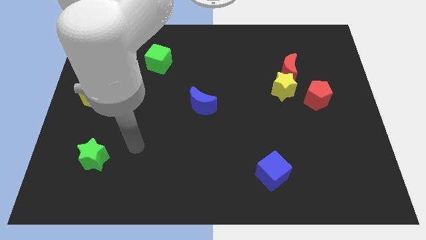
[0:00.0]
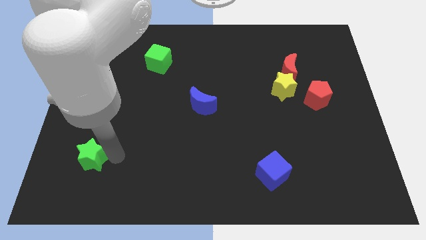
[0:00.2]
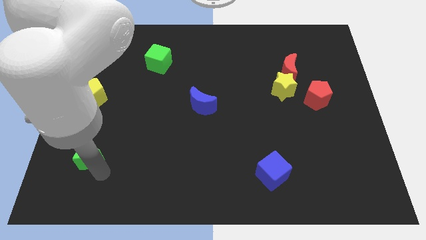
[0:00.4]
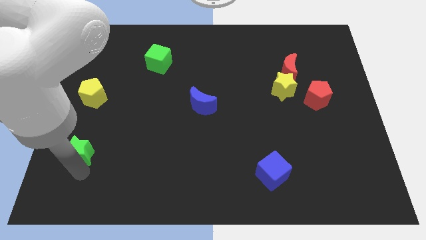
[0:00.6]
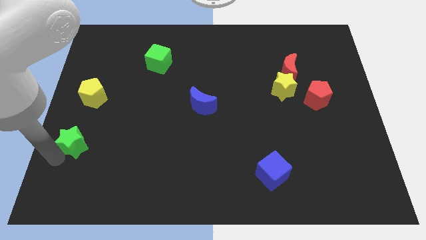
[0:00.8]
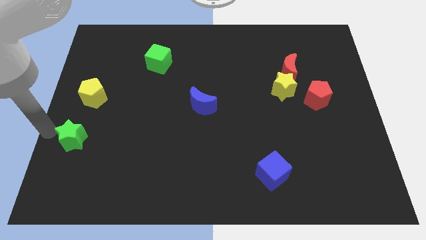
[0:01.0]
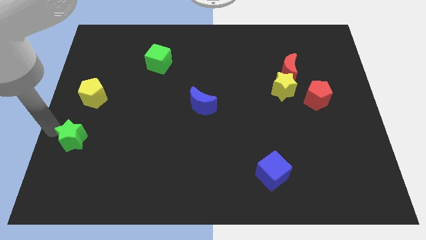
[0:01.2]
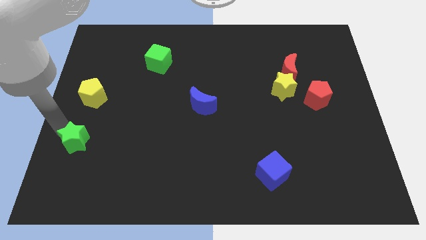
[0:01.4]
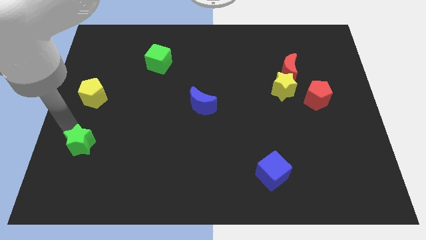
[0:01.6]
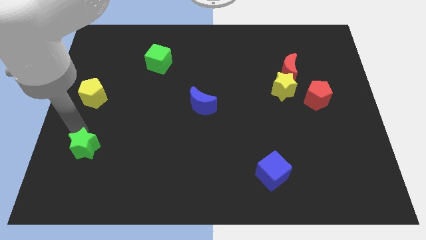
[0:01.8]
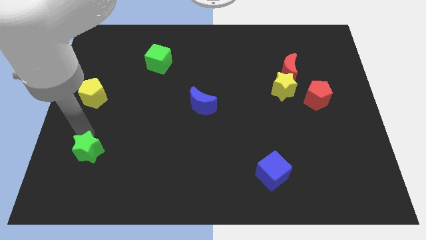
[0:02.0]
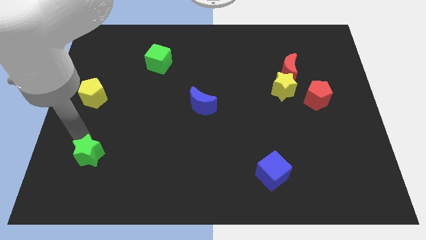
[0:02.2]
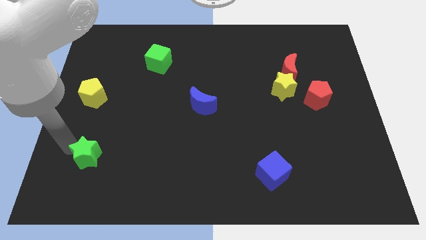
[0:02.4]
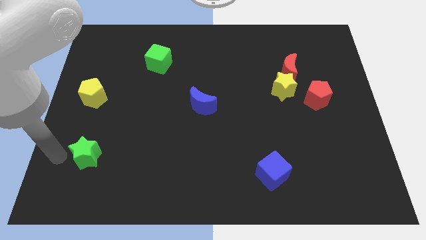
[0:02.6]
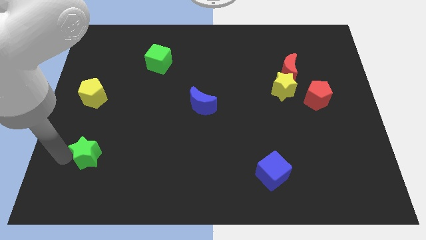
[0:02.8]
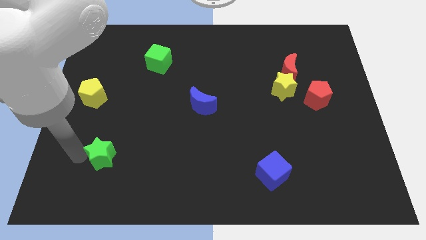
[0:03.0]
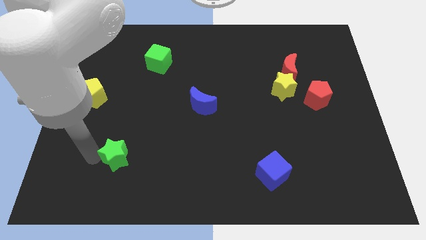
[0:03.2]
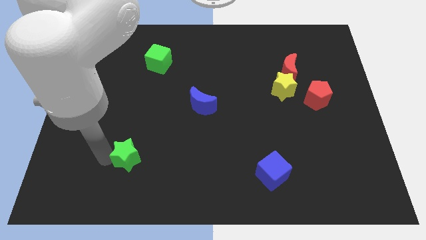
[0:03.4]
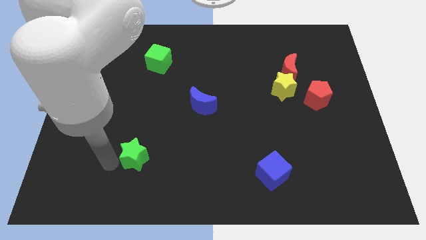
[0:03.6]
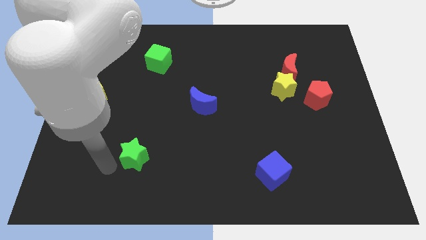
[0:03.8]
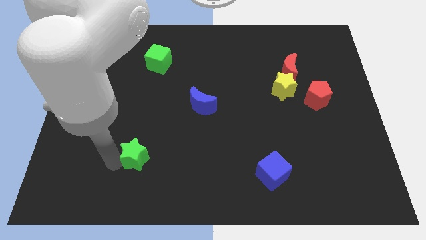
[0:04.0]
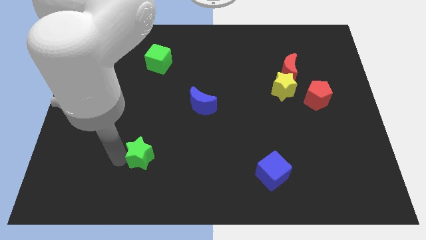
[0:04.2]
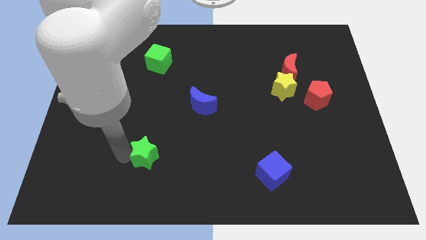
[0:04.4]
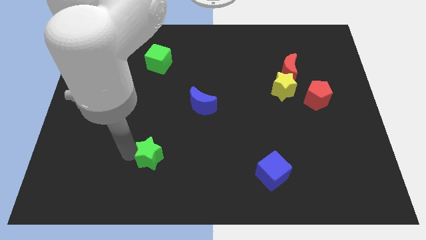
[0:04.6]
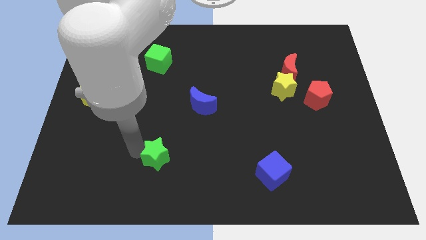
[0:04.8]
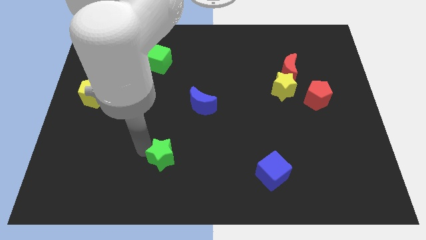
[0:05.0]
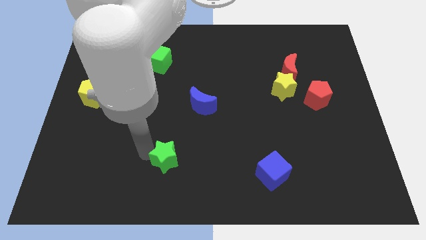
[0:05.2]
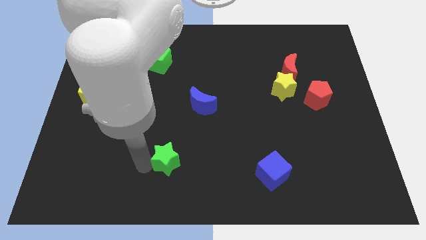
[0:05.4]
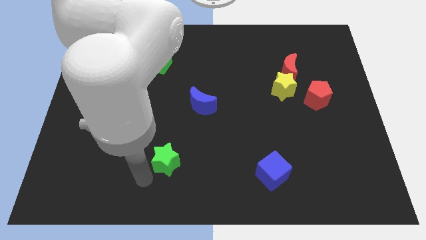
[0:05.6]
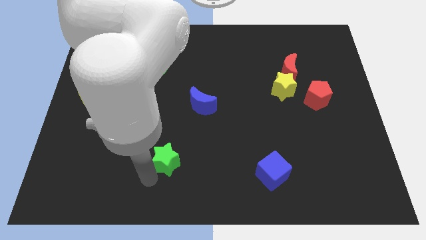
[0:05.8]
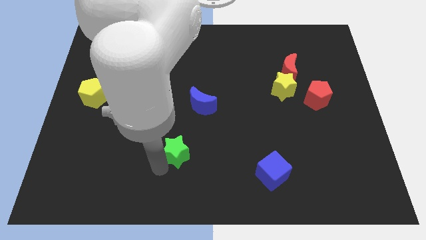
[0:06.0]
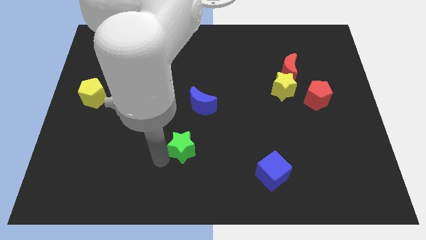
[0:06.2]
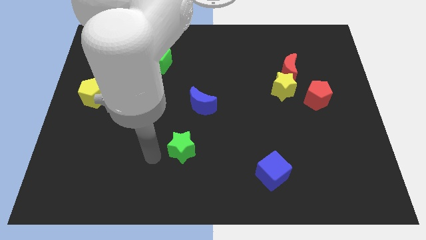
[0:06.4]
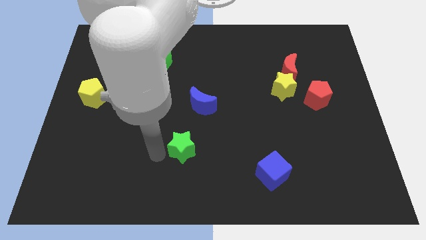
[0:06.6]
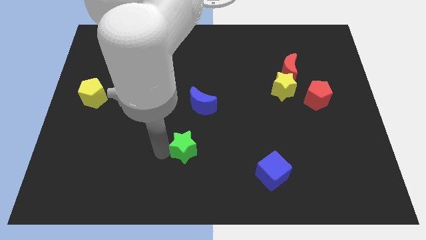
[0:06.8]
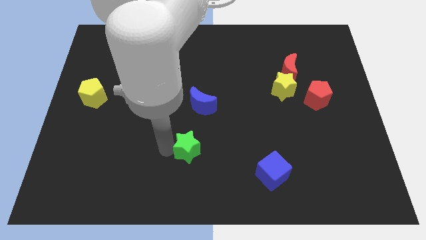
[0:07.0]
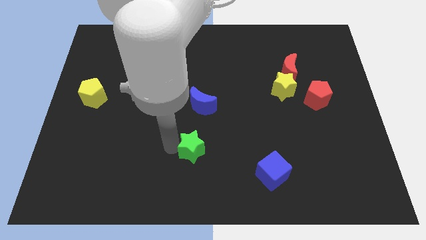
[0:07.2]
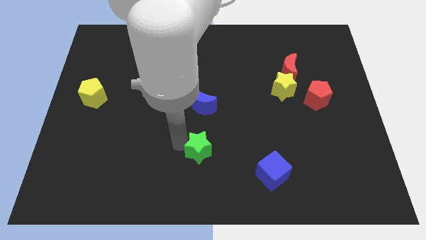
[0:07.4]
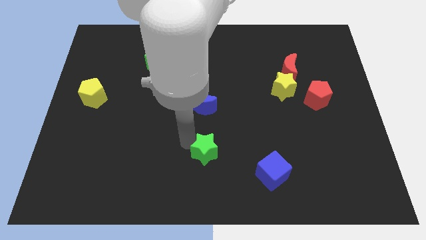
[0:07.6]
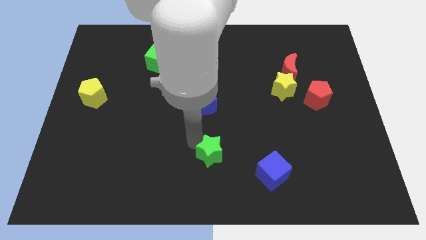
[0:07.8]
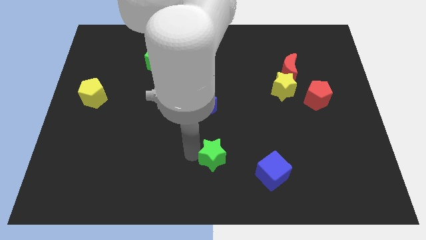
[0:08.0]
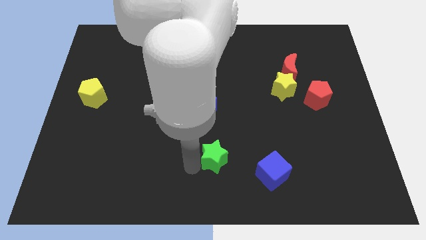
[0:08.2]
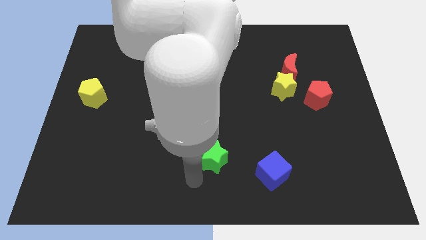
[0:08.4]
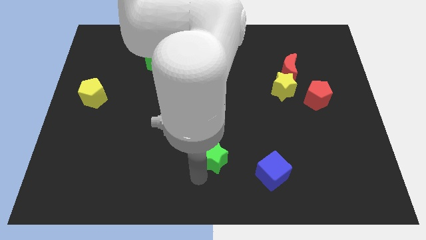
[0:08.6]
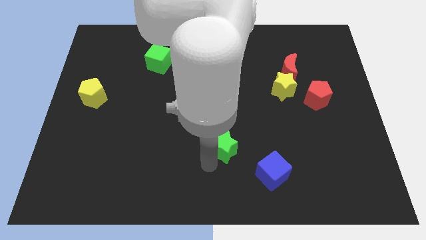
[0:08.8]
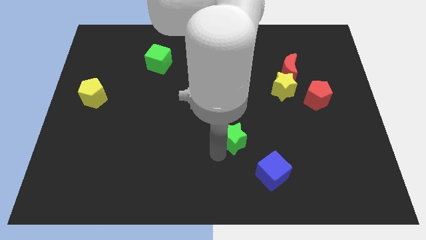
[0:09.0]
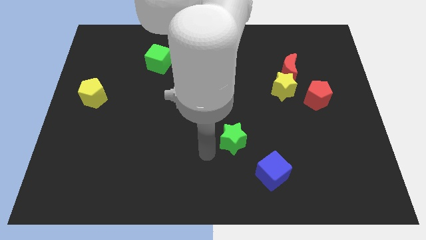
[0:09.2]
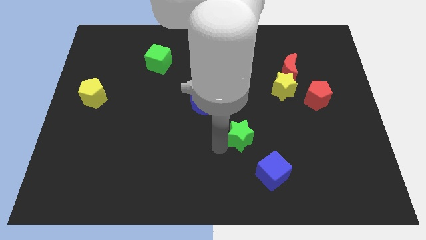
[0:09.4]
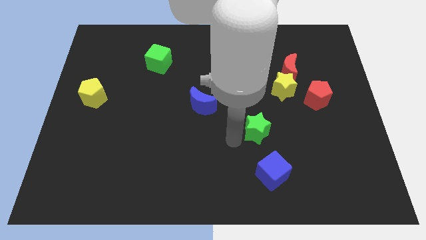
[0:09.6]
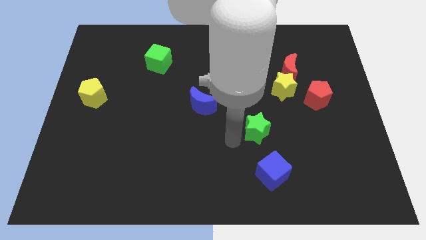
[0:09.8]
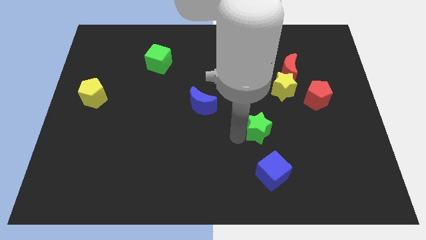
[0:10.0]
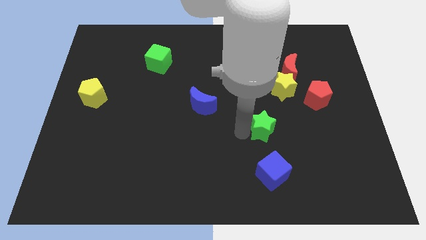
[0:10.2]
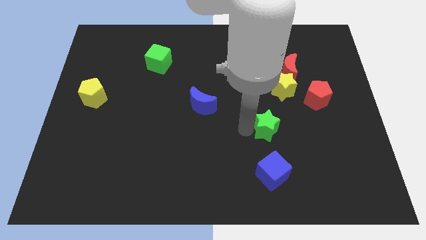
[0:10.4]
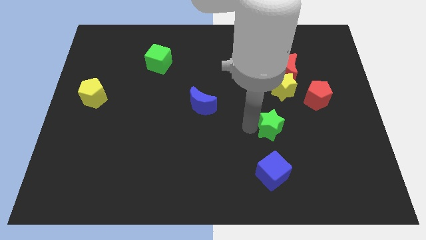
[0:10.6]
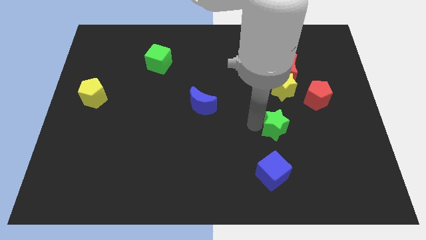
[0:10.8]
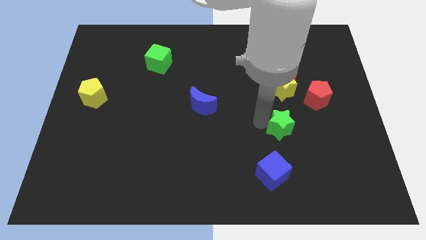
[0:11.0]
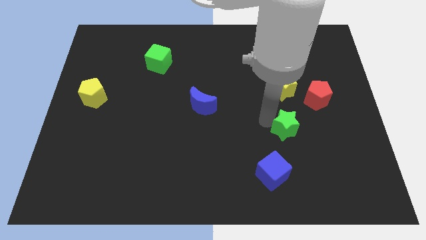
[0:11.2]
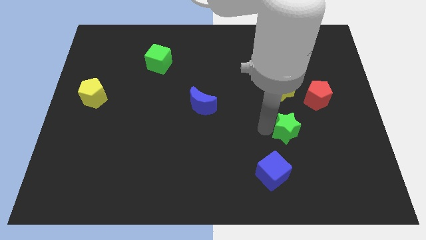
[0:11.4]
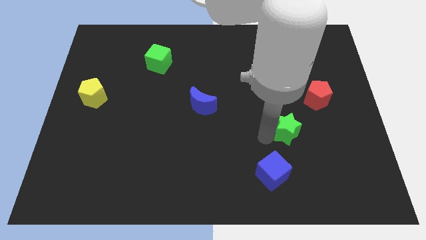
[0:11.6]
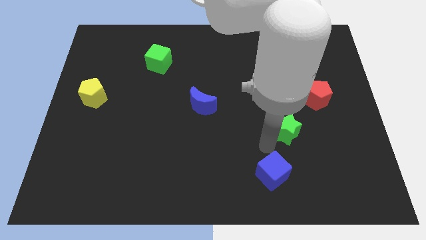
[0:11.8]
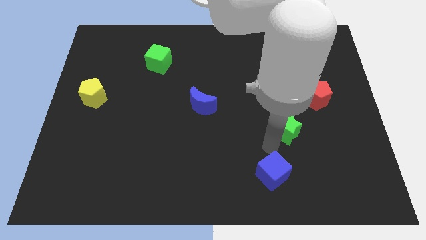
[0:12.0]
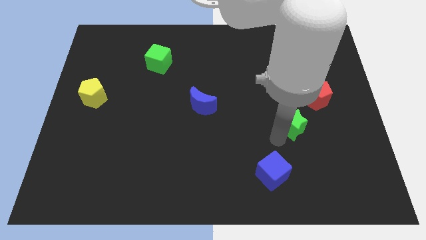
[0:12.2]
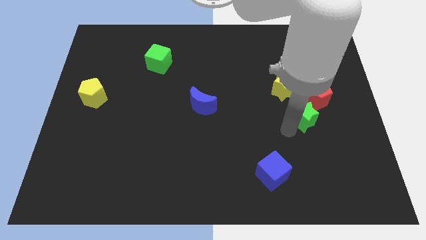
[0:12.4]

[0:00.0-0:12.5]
move the green star to the bottom right of the yellow star

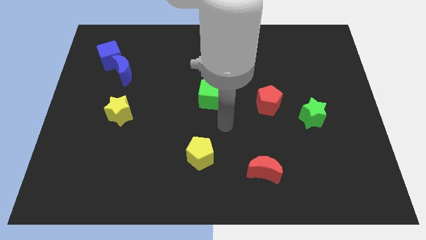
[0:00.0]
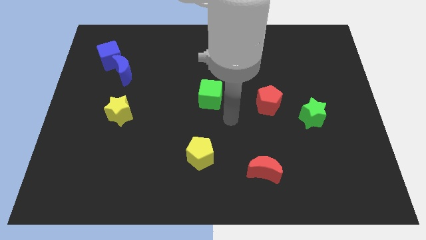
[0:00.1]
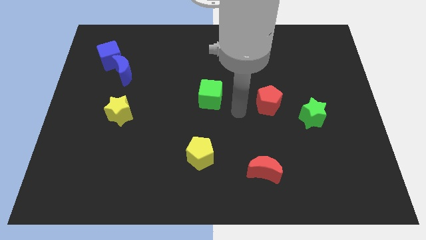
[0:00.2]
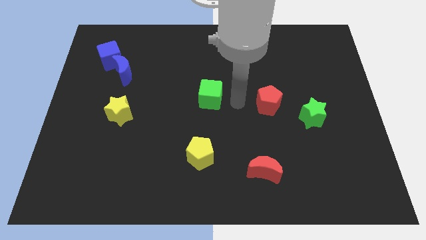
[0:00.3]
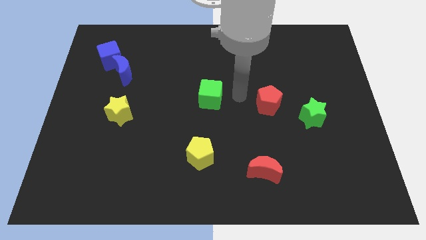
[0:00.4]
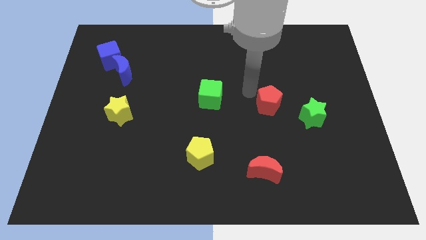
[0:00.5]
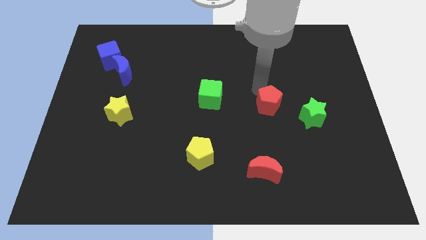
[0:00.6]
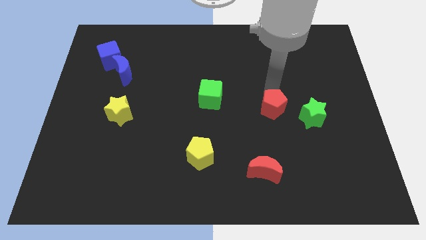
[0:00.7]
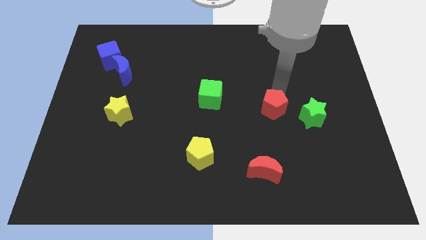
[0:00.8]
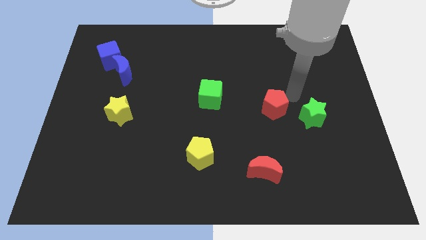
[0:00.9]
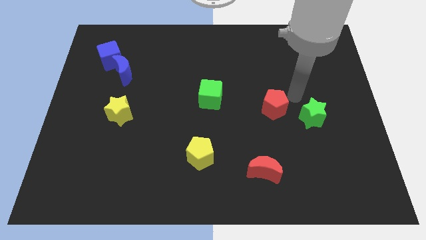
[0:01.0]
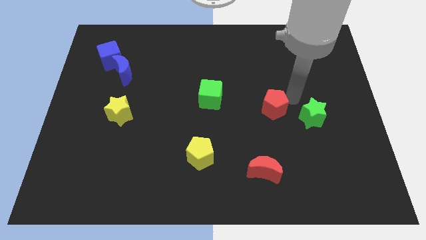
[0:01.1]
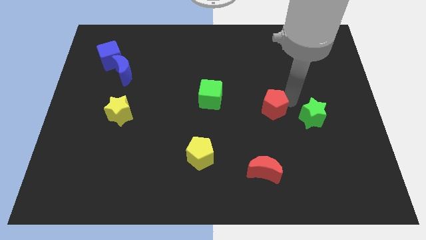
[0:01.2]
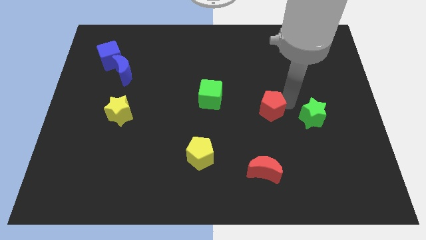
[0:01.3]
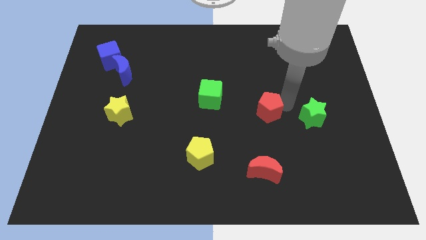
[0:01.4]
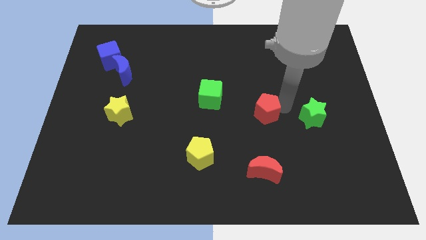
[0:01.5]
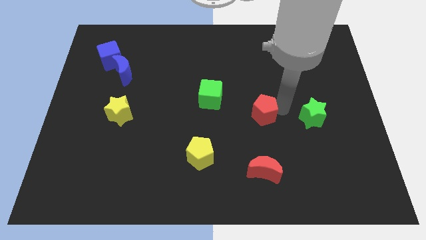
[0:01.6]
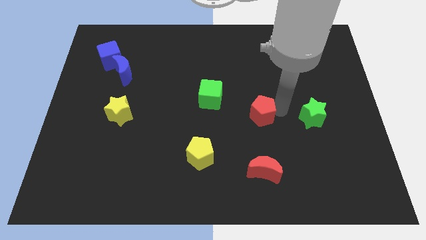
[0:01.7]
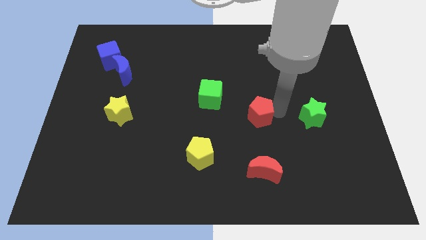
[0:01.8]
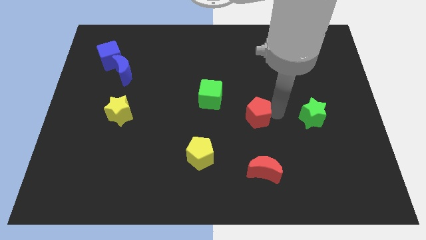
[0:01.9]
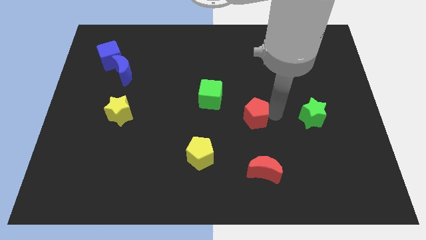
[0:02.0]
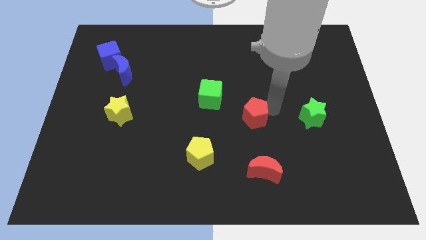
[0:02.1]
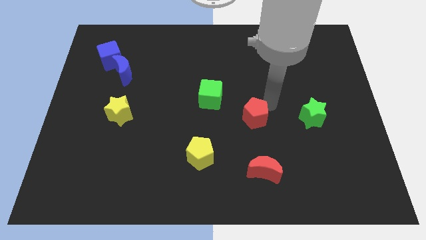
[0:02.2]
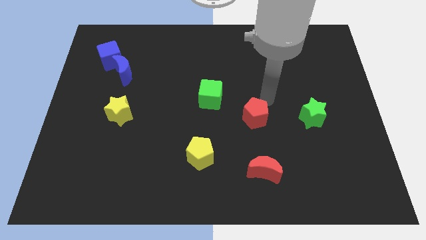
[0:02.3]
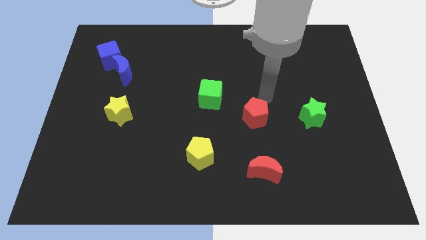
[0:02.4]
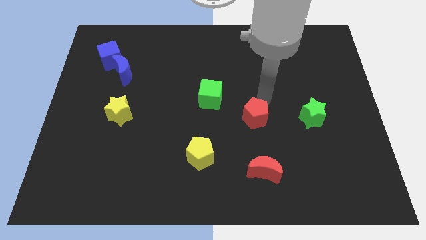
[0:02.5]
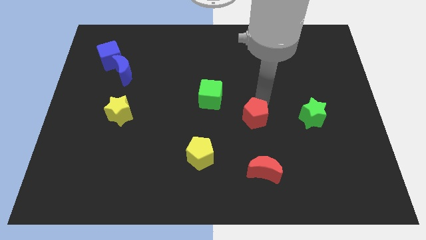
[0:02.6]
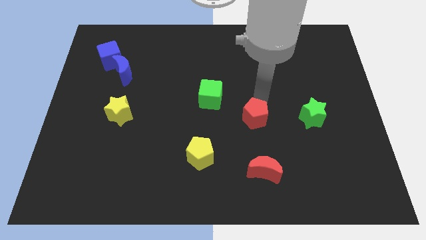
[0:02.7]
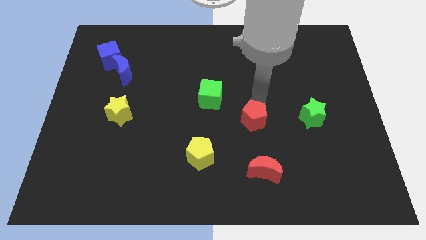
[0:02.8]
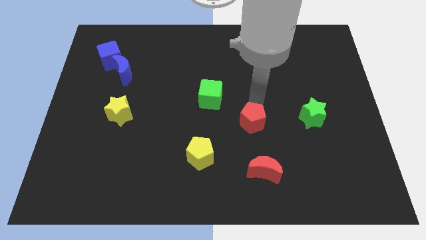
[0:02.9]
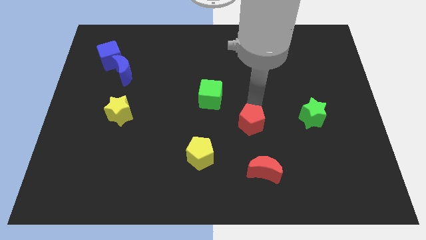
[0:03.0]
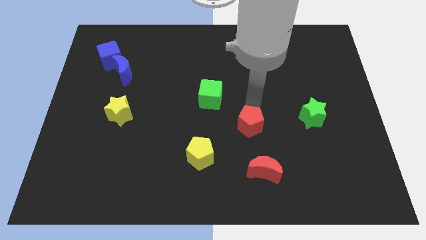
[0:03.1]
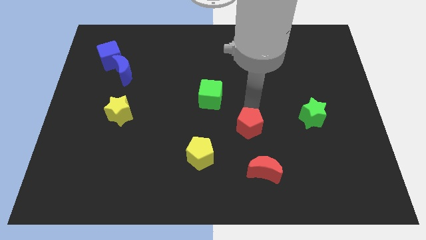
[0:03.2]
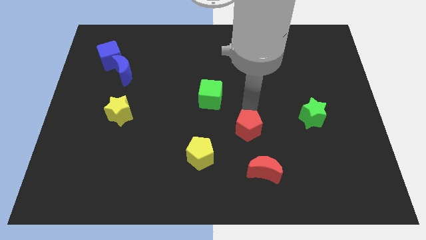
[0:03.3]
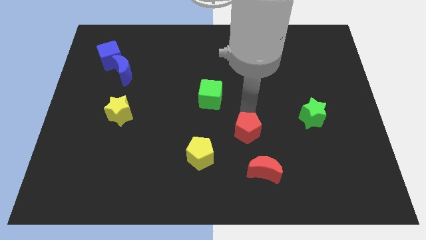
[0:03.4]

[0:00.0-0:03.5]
push the red pentagon diagonally up and to the left of the red moon
